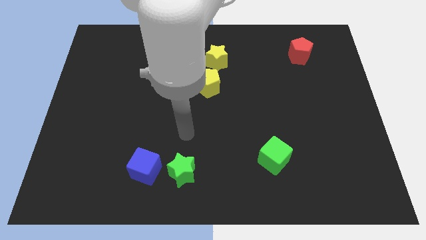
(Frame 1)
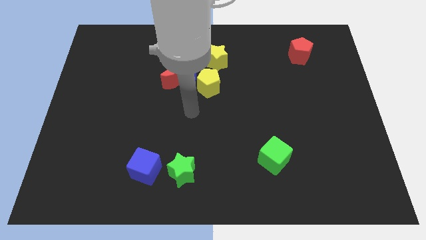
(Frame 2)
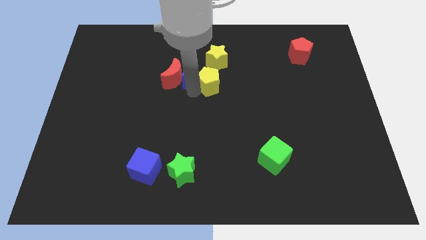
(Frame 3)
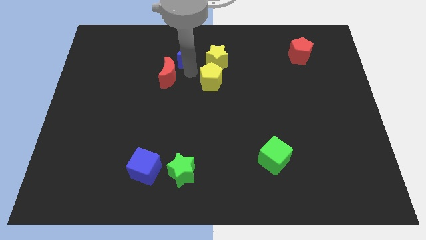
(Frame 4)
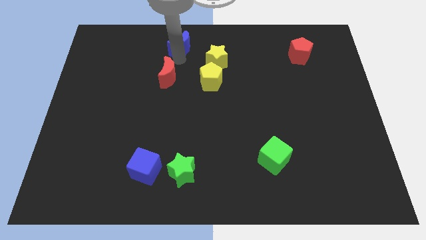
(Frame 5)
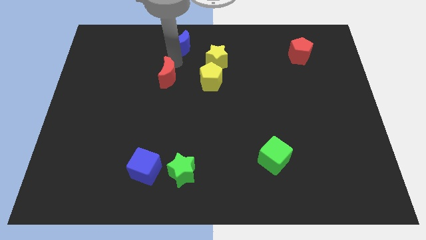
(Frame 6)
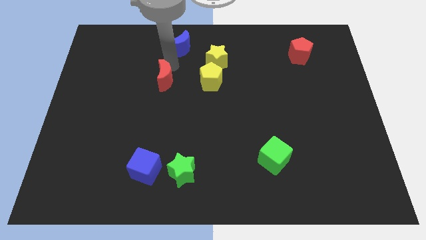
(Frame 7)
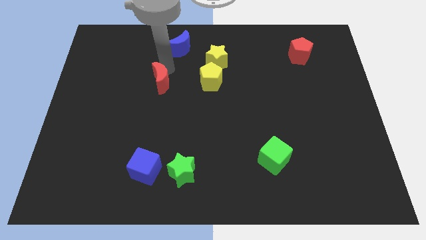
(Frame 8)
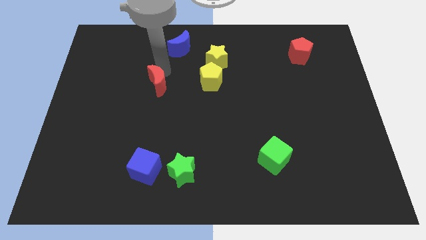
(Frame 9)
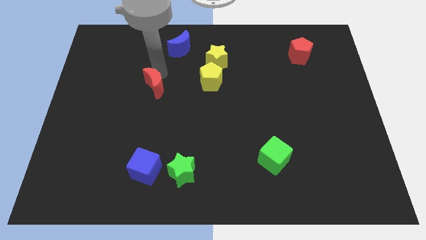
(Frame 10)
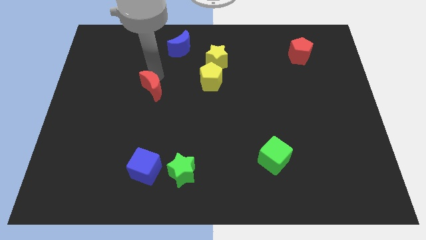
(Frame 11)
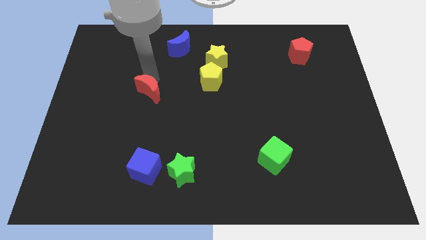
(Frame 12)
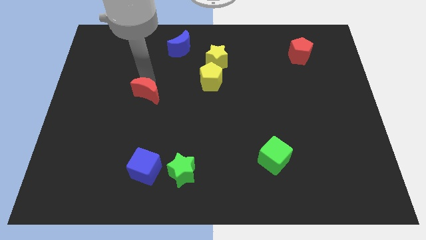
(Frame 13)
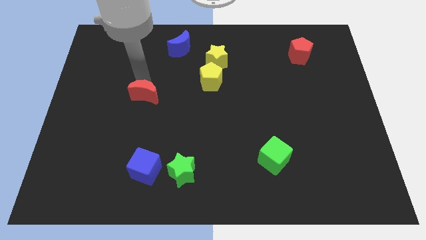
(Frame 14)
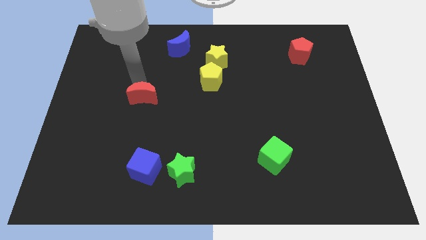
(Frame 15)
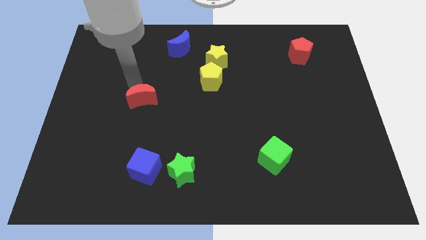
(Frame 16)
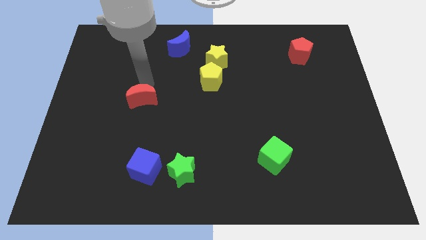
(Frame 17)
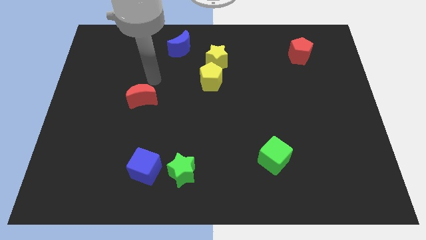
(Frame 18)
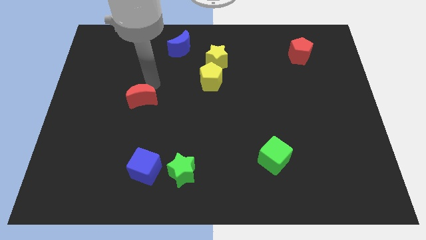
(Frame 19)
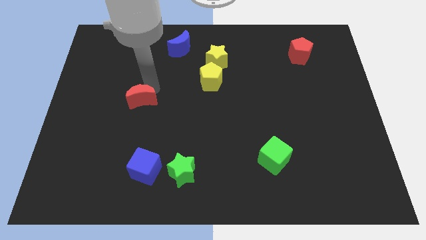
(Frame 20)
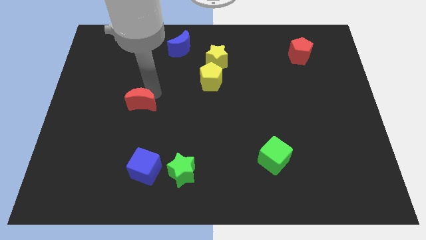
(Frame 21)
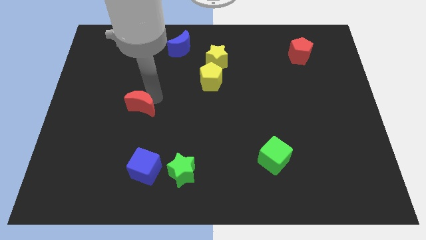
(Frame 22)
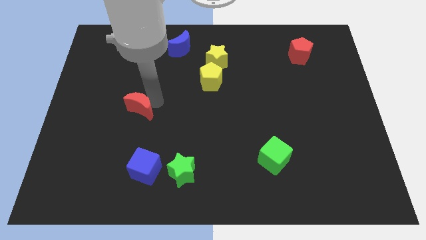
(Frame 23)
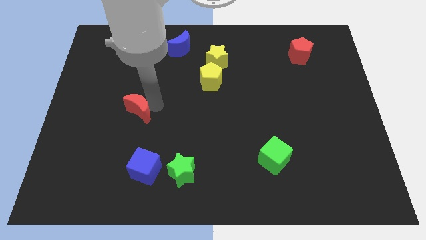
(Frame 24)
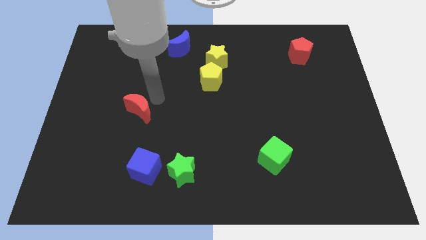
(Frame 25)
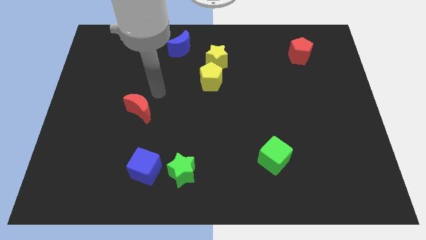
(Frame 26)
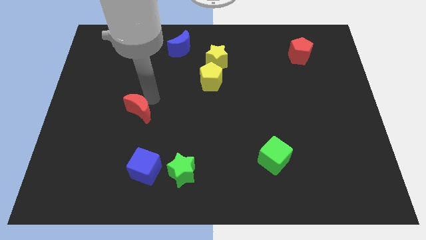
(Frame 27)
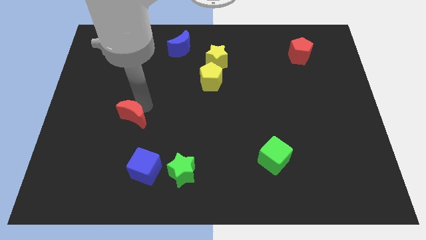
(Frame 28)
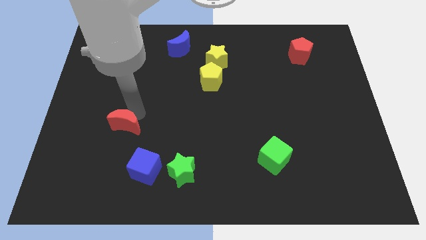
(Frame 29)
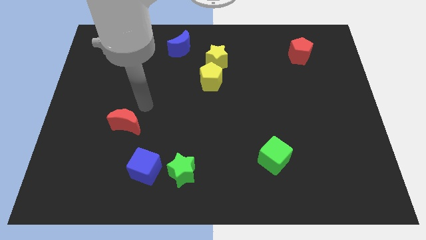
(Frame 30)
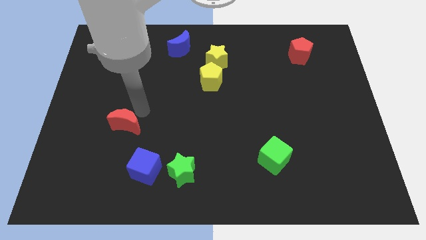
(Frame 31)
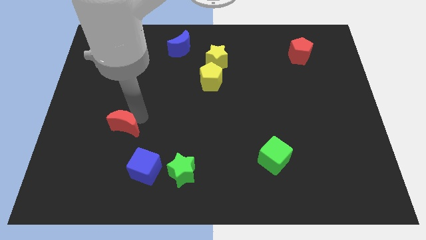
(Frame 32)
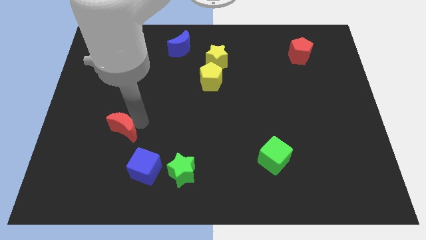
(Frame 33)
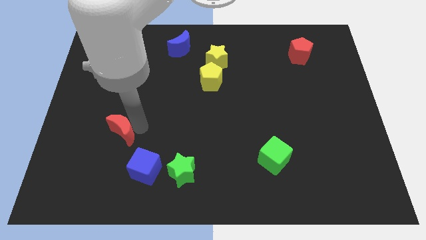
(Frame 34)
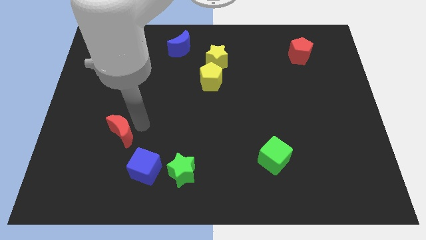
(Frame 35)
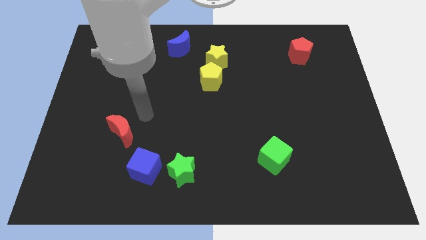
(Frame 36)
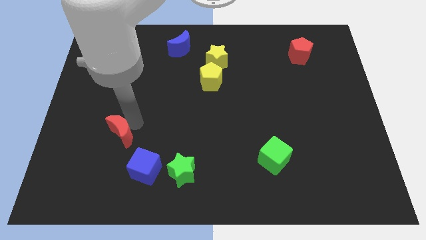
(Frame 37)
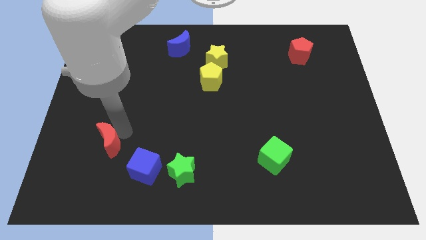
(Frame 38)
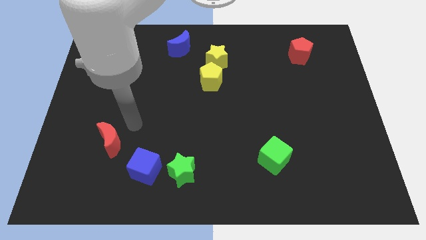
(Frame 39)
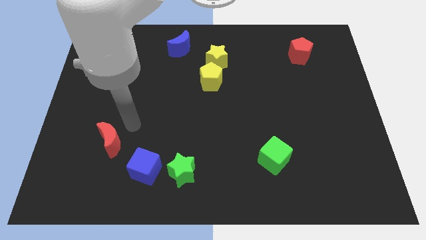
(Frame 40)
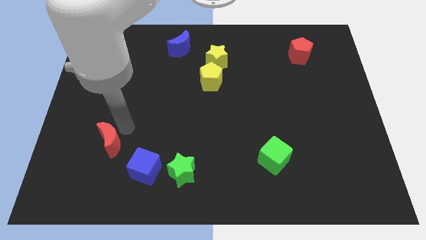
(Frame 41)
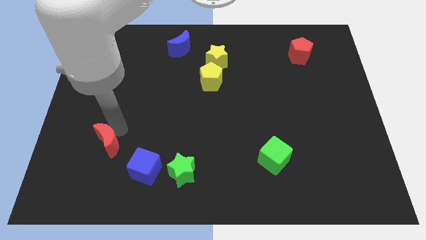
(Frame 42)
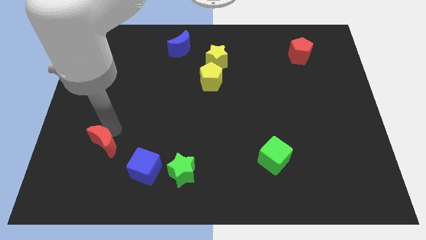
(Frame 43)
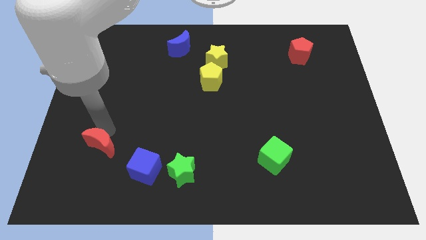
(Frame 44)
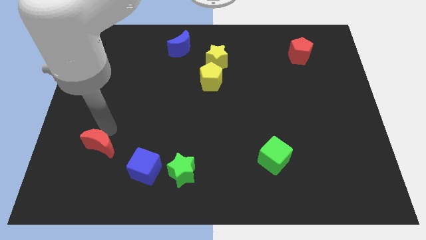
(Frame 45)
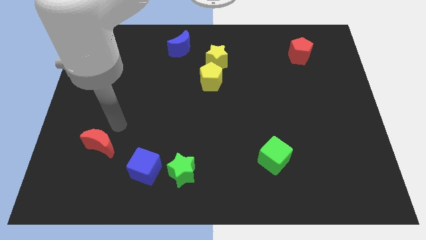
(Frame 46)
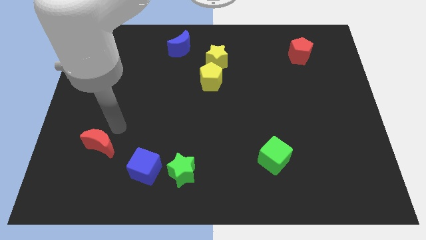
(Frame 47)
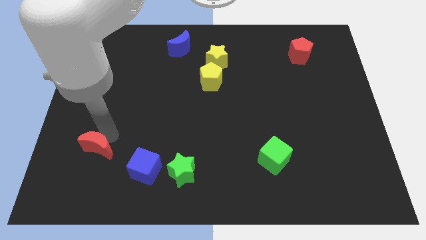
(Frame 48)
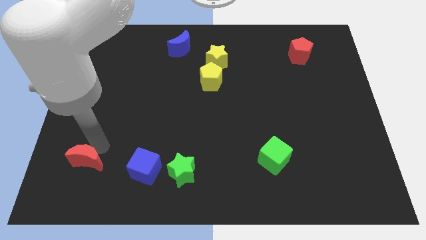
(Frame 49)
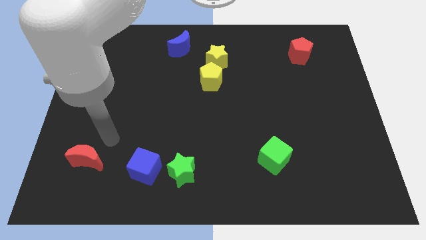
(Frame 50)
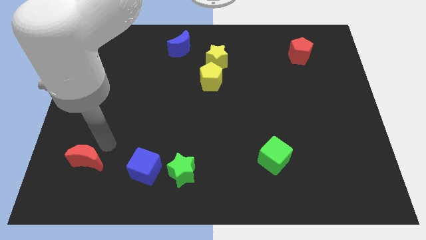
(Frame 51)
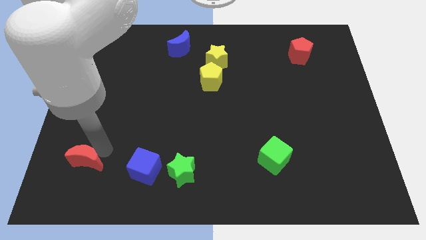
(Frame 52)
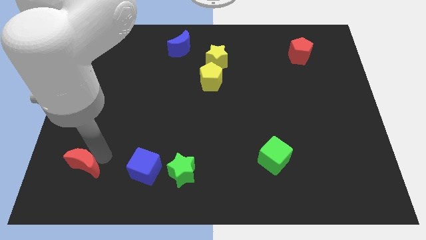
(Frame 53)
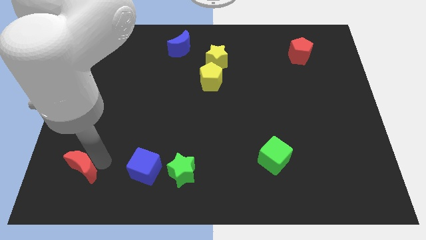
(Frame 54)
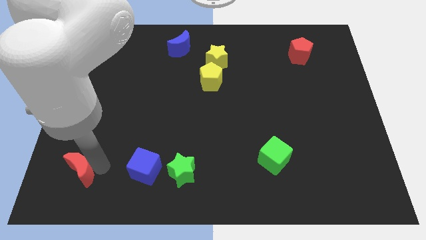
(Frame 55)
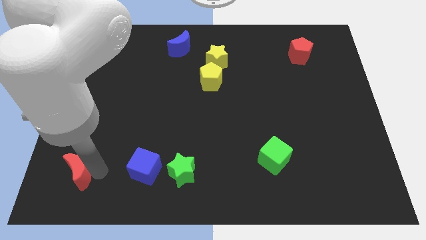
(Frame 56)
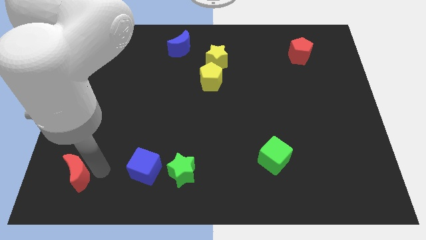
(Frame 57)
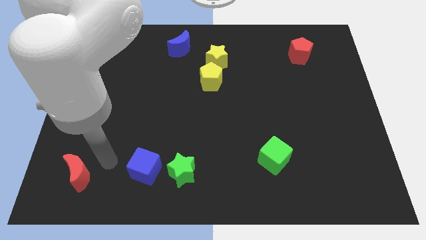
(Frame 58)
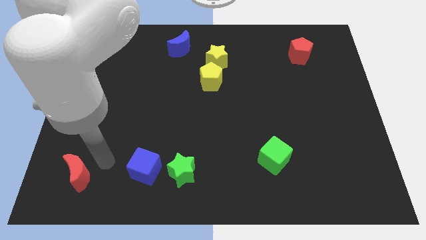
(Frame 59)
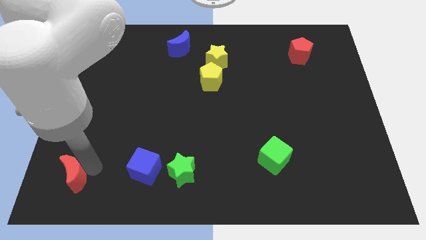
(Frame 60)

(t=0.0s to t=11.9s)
move the red moon to the bottom left
